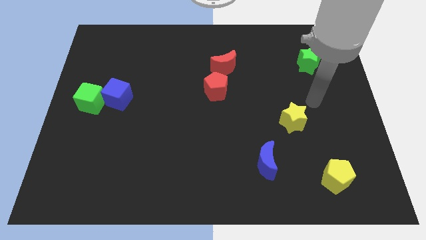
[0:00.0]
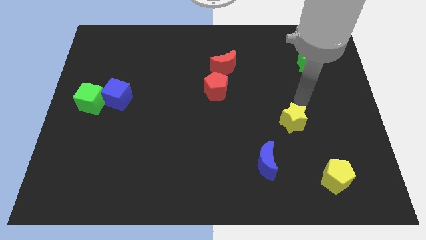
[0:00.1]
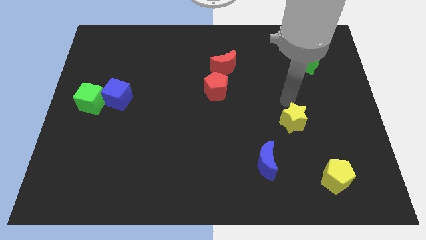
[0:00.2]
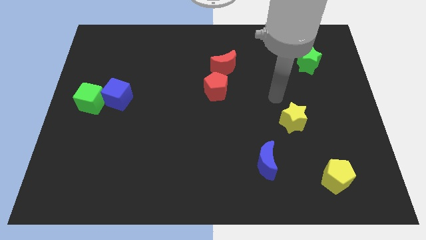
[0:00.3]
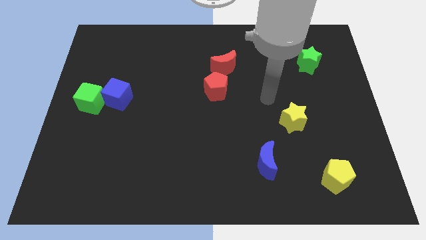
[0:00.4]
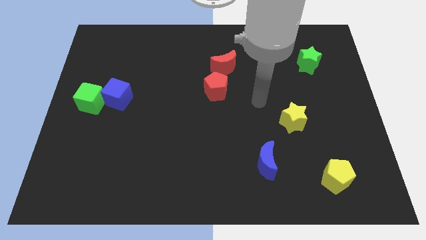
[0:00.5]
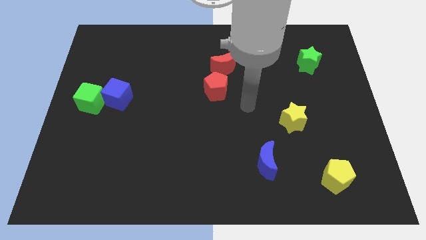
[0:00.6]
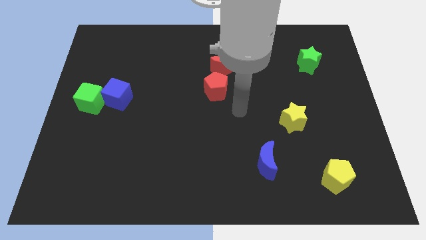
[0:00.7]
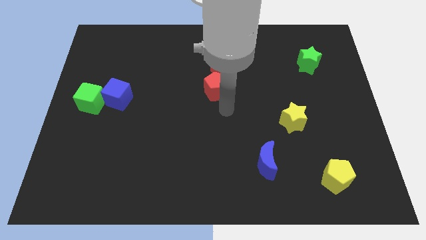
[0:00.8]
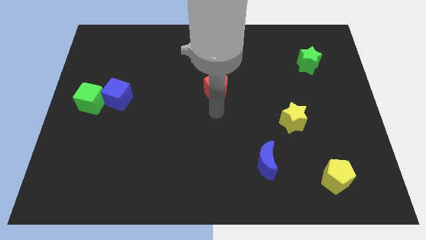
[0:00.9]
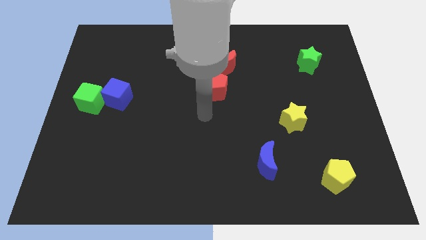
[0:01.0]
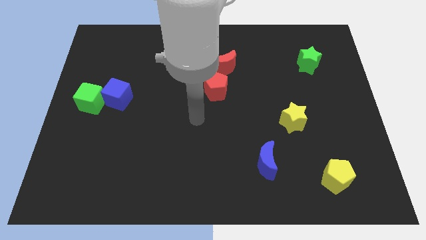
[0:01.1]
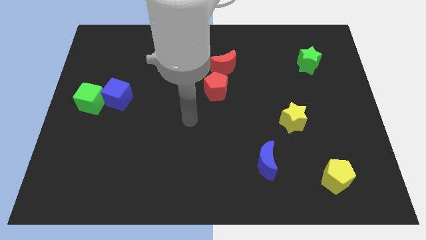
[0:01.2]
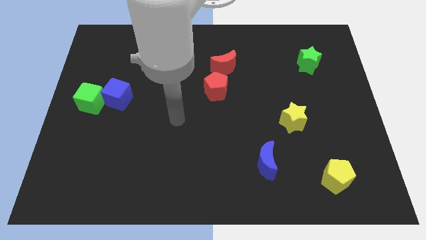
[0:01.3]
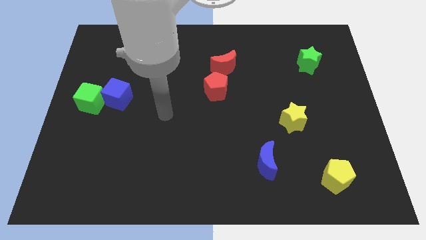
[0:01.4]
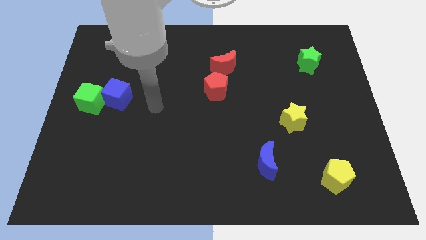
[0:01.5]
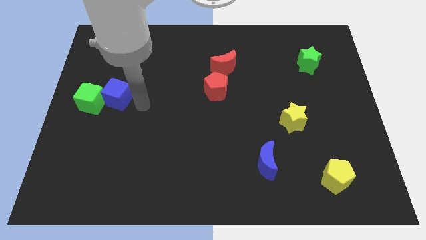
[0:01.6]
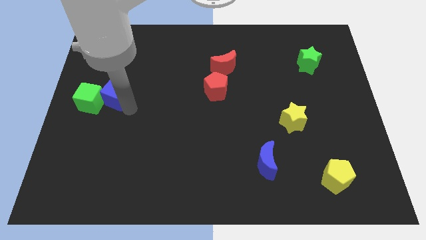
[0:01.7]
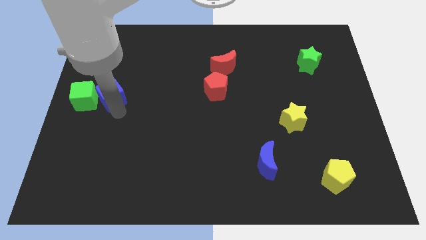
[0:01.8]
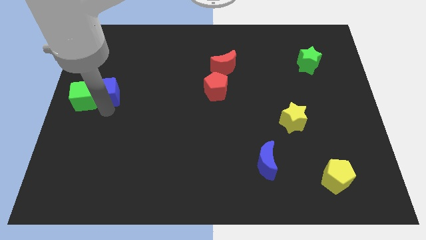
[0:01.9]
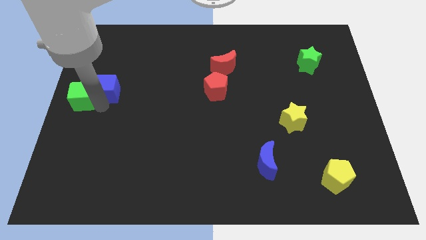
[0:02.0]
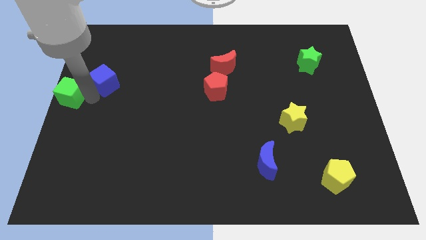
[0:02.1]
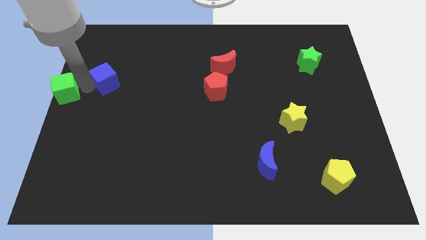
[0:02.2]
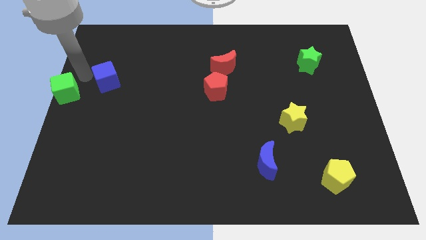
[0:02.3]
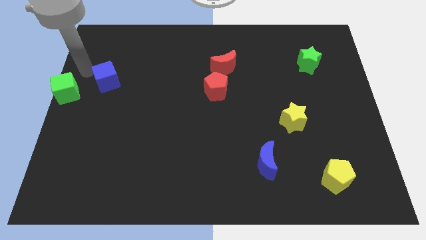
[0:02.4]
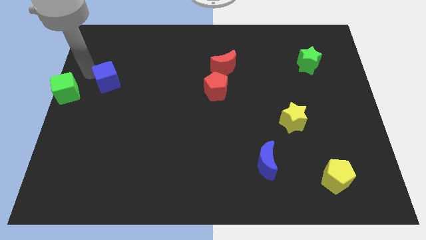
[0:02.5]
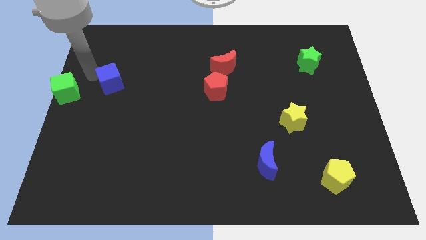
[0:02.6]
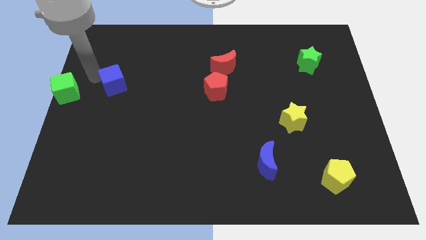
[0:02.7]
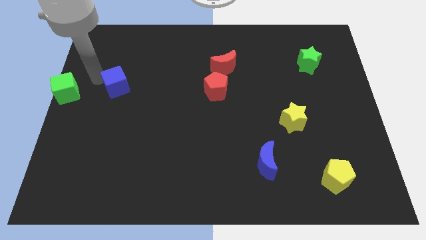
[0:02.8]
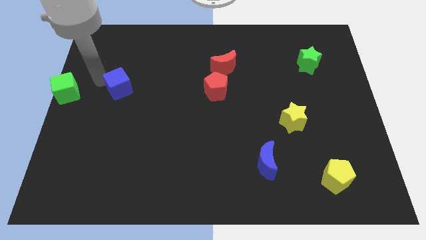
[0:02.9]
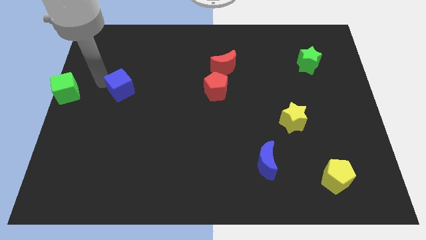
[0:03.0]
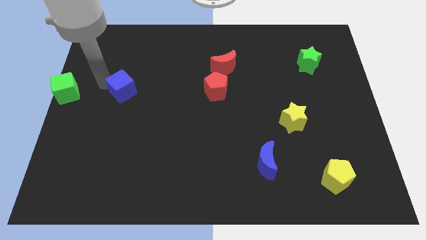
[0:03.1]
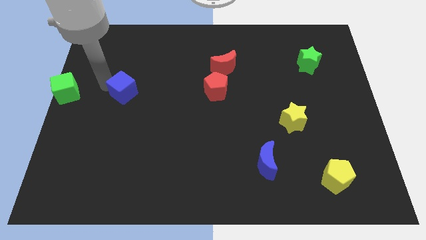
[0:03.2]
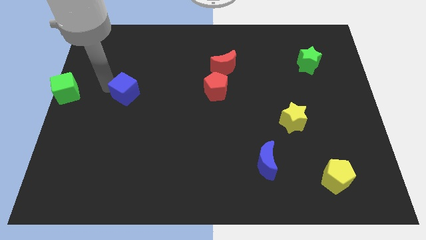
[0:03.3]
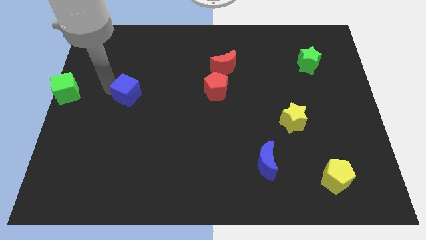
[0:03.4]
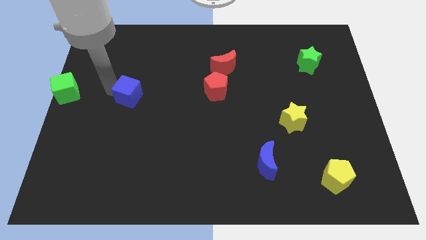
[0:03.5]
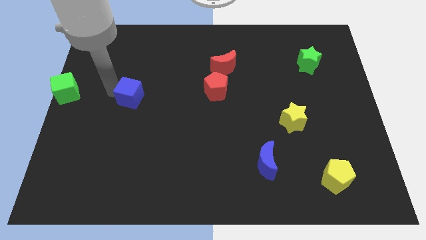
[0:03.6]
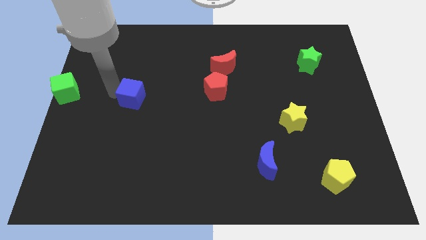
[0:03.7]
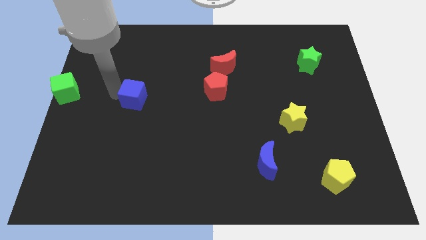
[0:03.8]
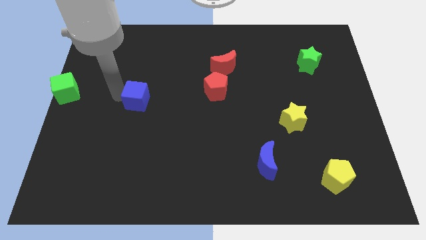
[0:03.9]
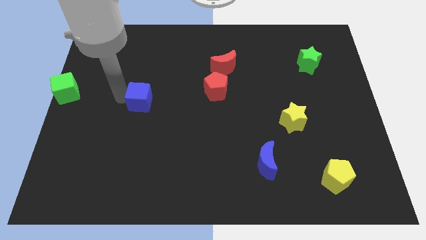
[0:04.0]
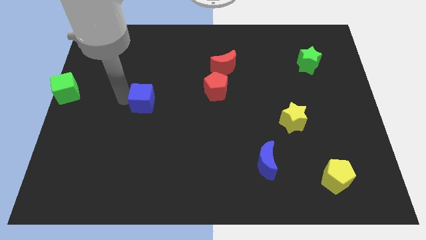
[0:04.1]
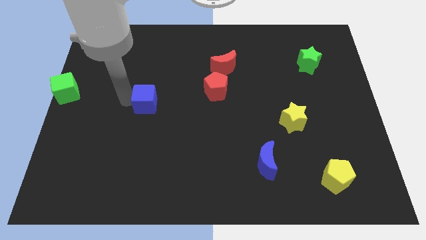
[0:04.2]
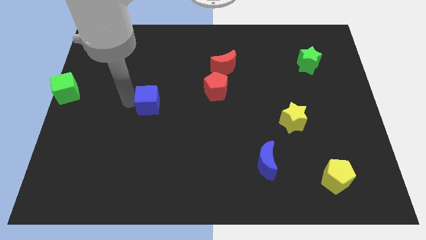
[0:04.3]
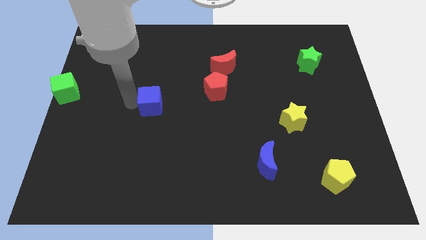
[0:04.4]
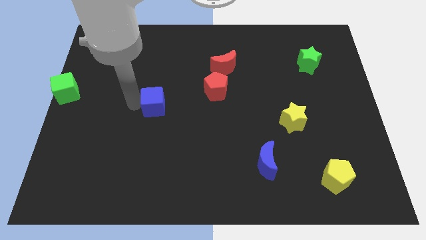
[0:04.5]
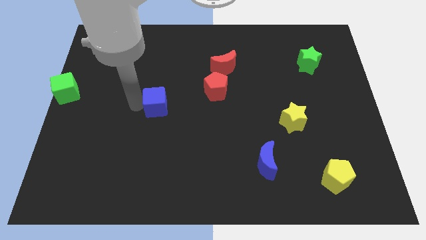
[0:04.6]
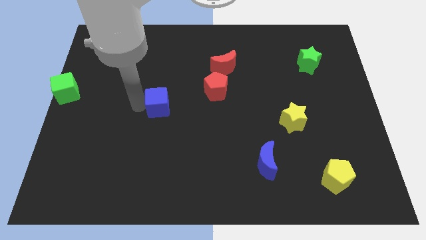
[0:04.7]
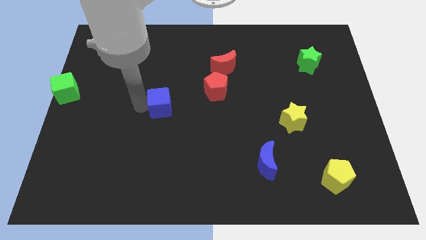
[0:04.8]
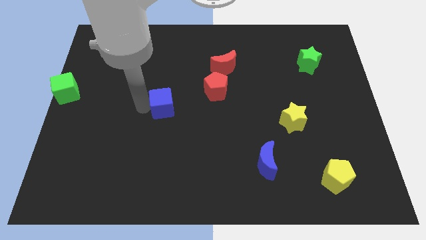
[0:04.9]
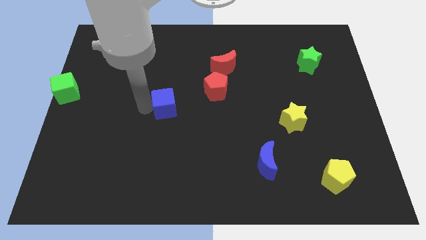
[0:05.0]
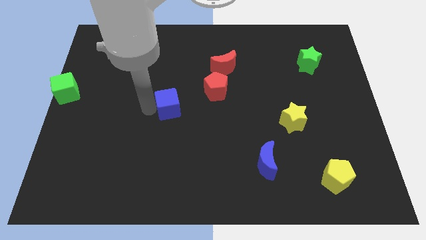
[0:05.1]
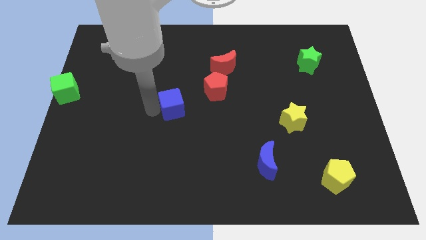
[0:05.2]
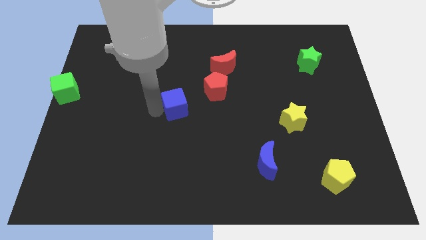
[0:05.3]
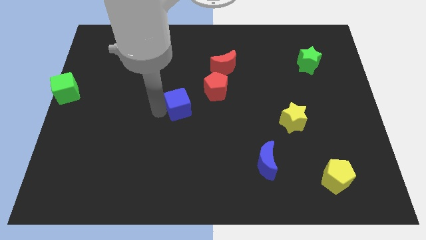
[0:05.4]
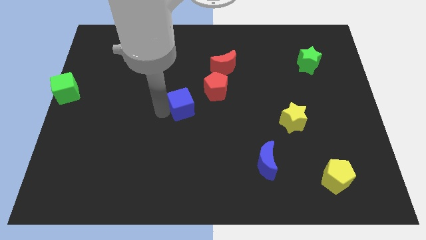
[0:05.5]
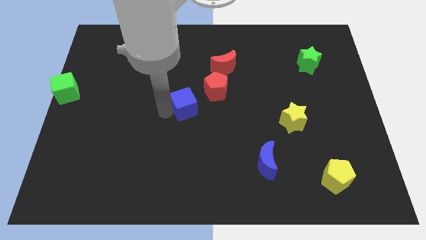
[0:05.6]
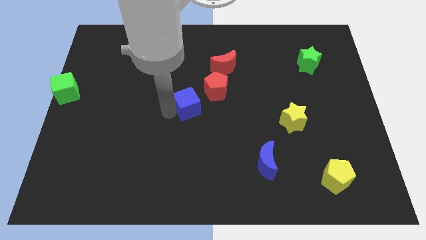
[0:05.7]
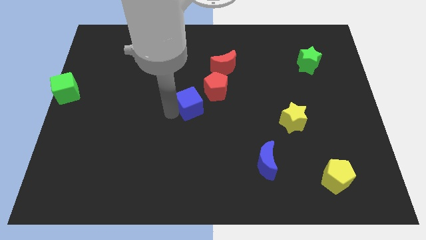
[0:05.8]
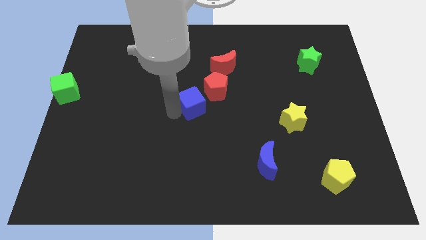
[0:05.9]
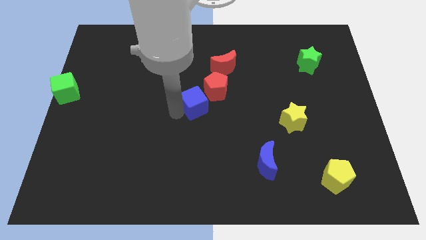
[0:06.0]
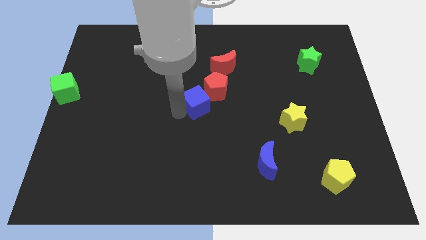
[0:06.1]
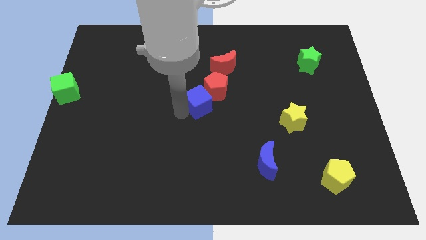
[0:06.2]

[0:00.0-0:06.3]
push the blue cube to the red pentagon

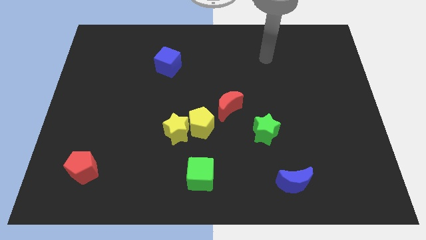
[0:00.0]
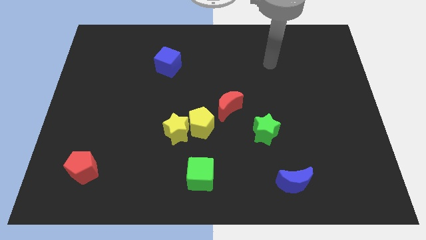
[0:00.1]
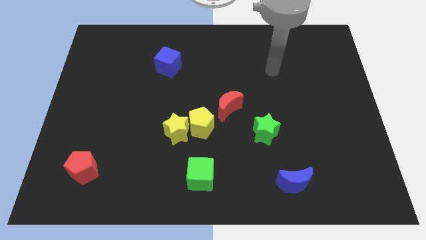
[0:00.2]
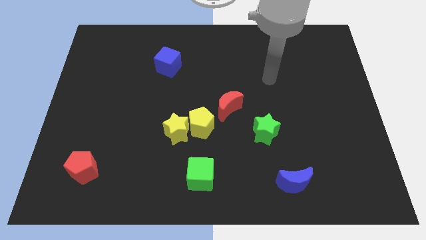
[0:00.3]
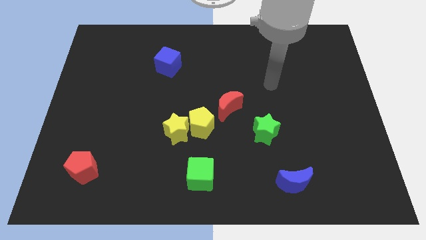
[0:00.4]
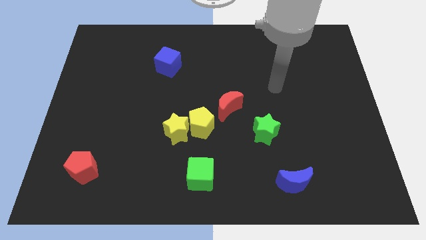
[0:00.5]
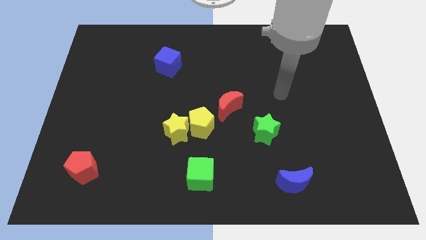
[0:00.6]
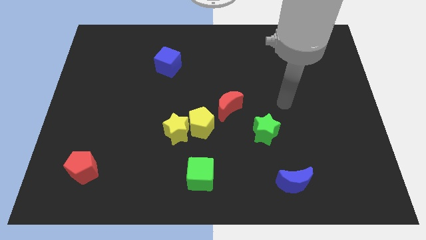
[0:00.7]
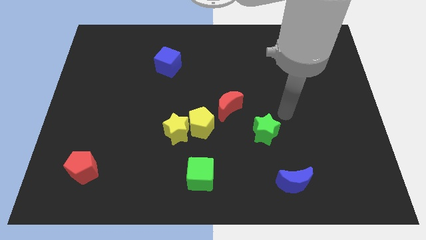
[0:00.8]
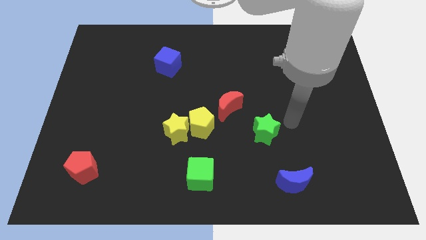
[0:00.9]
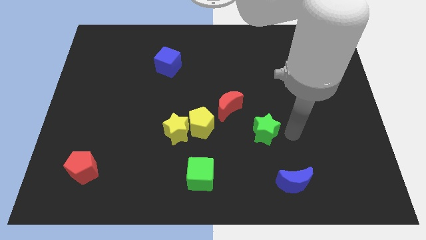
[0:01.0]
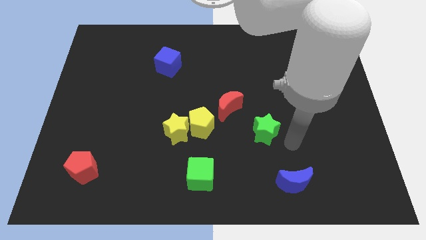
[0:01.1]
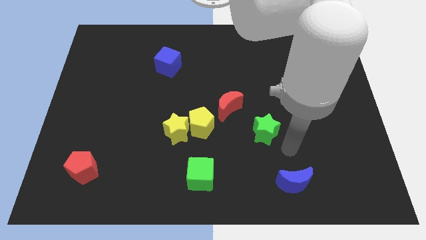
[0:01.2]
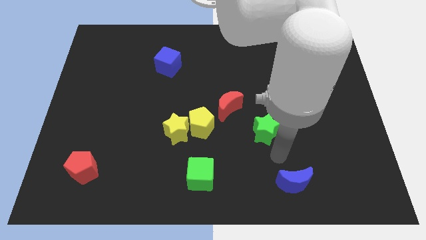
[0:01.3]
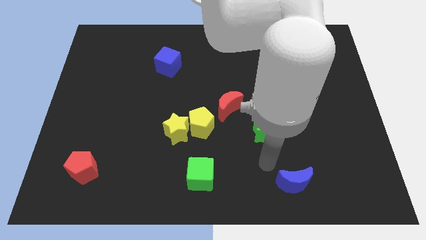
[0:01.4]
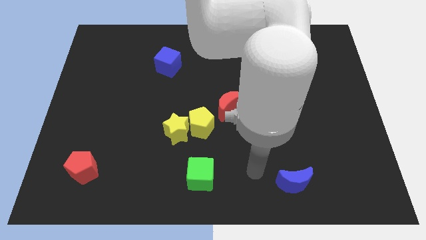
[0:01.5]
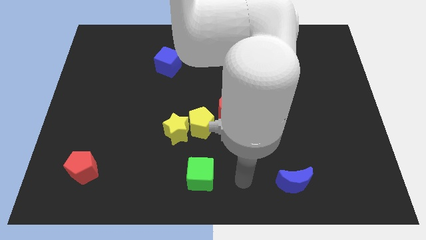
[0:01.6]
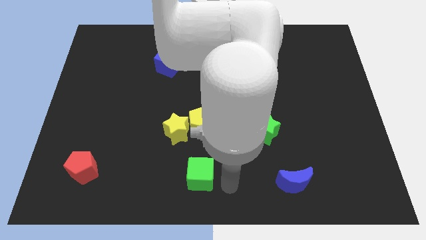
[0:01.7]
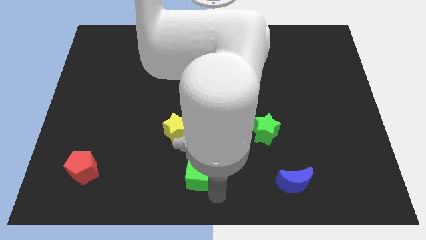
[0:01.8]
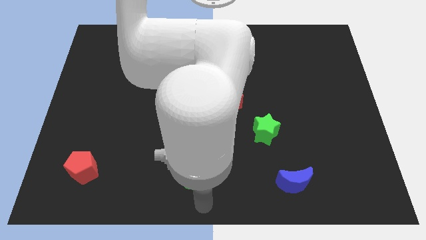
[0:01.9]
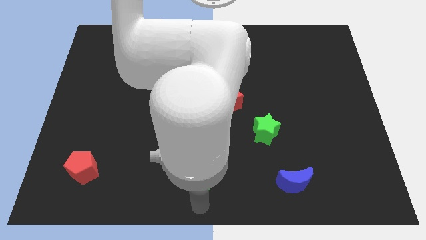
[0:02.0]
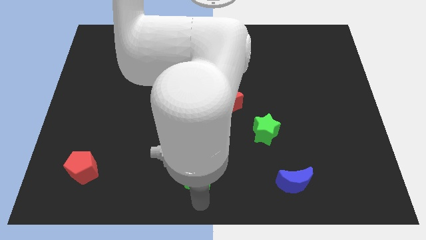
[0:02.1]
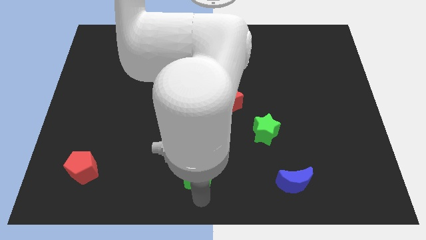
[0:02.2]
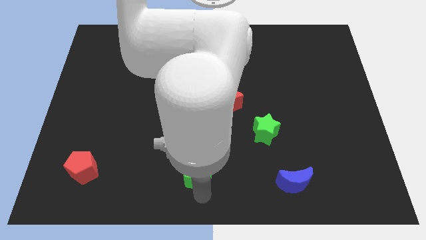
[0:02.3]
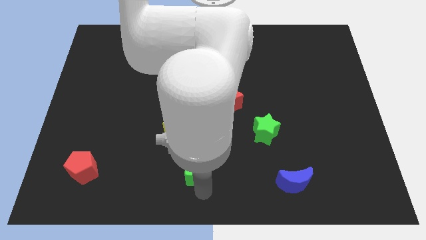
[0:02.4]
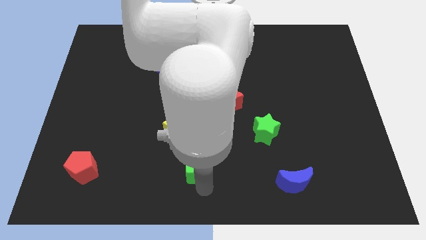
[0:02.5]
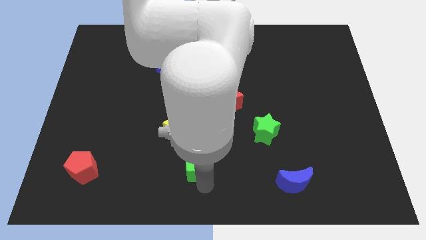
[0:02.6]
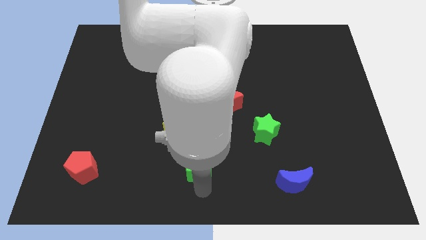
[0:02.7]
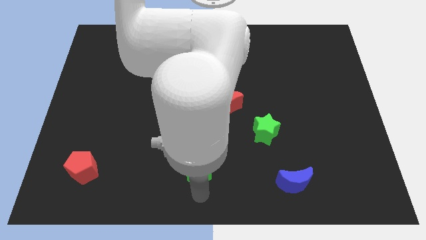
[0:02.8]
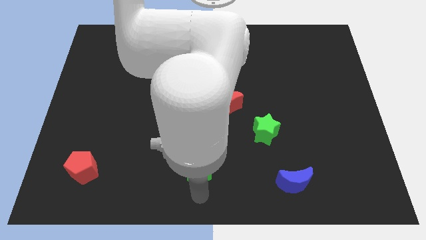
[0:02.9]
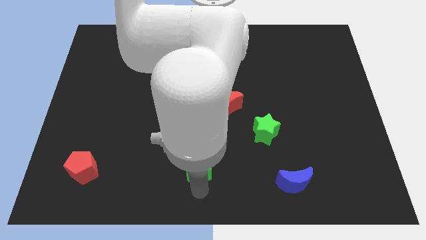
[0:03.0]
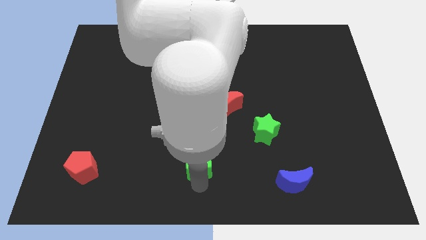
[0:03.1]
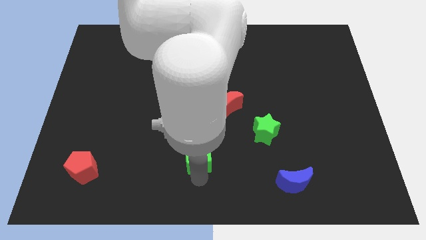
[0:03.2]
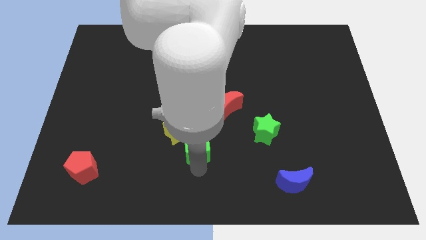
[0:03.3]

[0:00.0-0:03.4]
move the green cube towards the yellow pentagon
